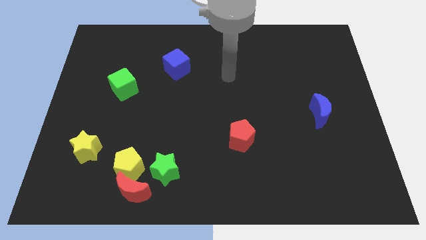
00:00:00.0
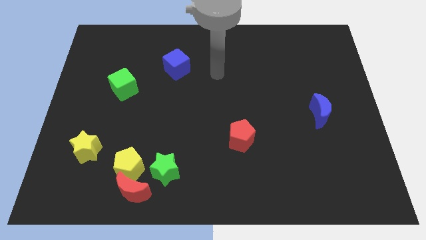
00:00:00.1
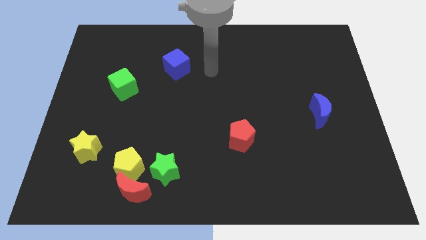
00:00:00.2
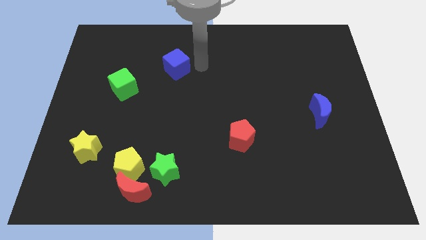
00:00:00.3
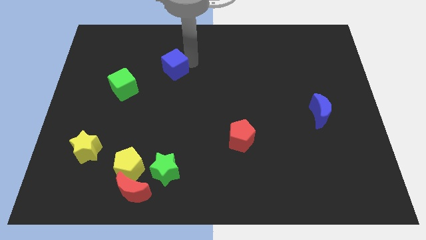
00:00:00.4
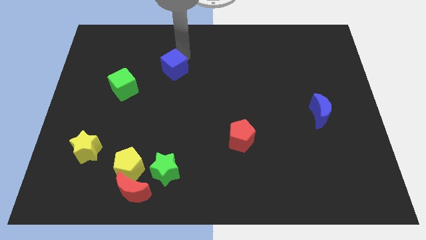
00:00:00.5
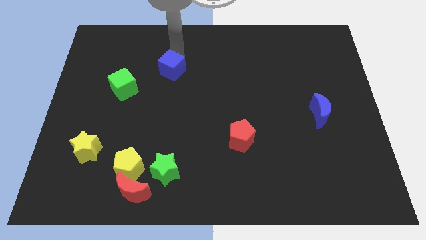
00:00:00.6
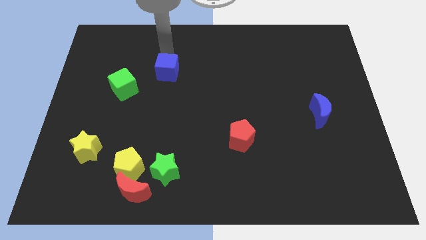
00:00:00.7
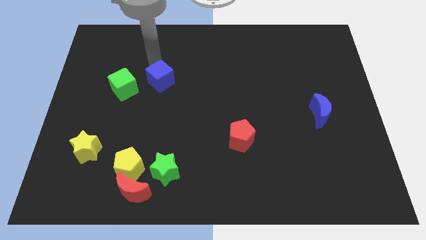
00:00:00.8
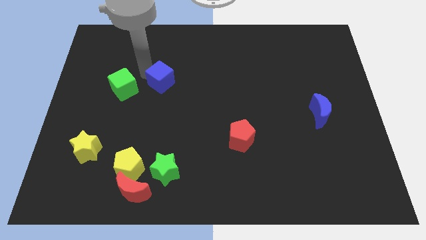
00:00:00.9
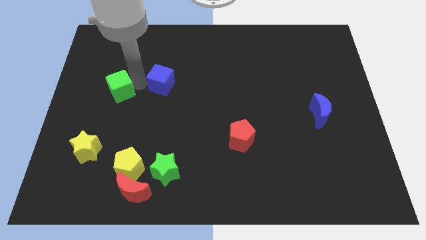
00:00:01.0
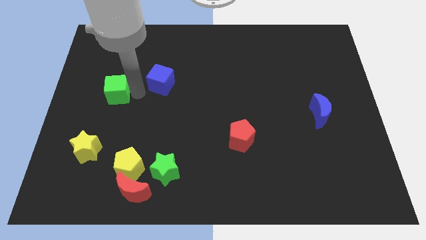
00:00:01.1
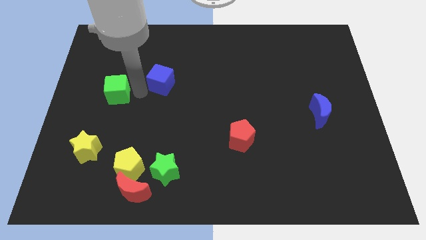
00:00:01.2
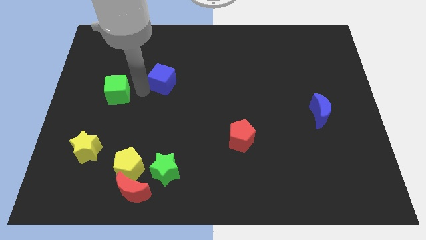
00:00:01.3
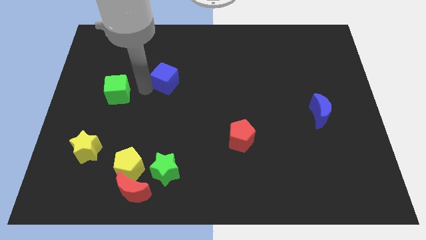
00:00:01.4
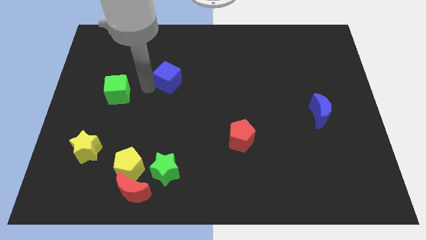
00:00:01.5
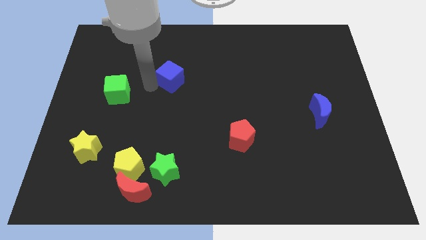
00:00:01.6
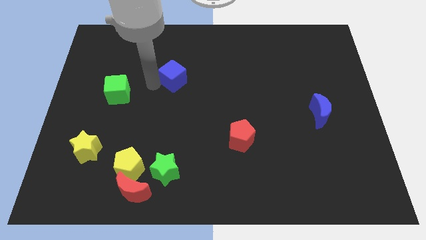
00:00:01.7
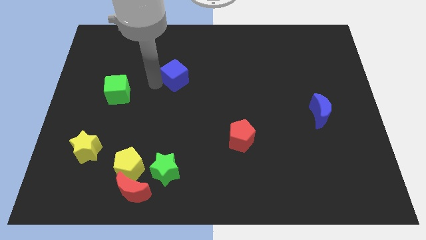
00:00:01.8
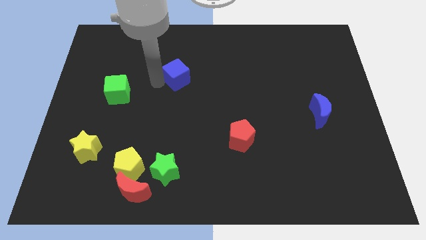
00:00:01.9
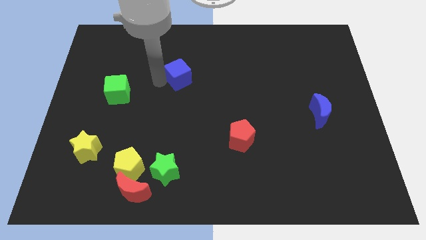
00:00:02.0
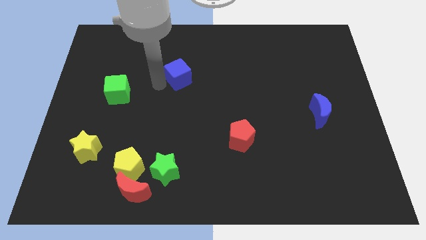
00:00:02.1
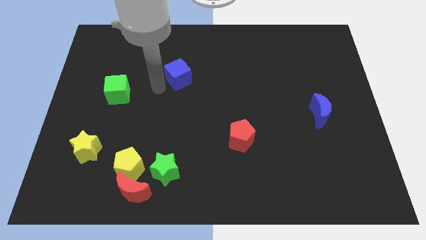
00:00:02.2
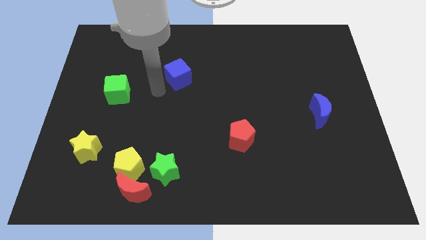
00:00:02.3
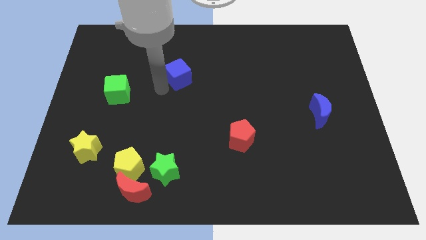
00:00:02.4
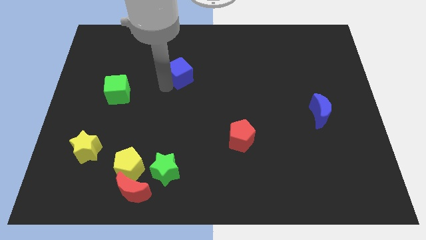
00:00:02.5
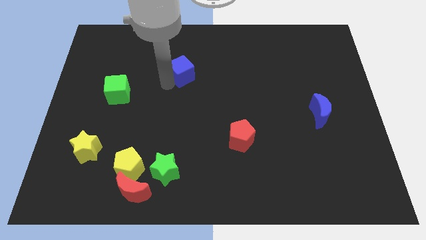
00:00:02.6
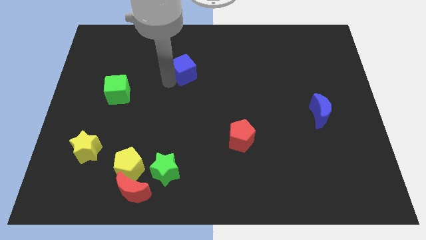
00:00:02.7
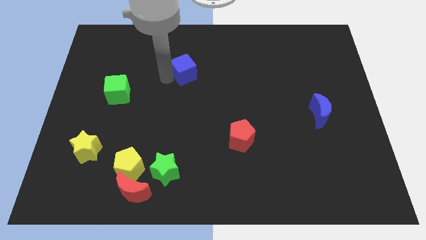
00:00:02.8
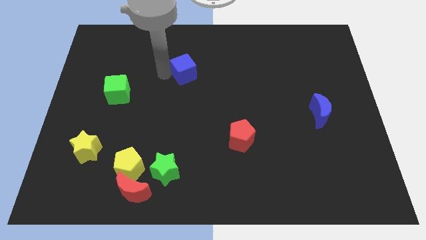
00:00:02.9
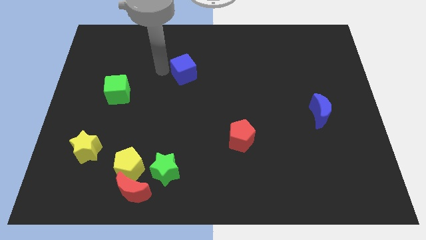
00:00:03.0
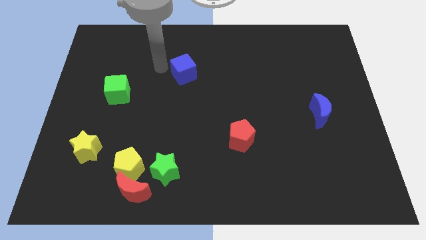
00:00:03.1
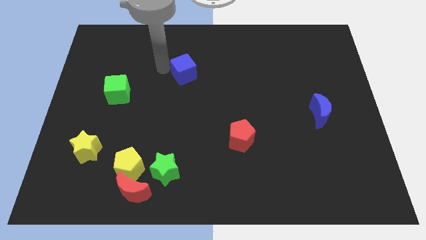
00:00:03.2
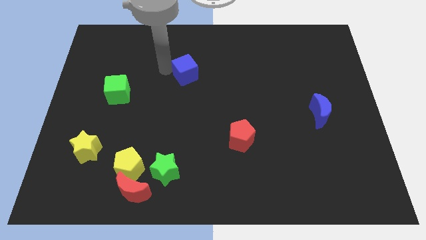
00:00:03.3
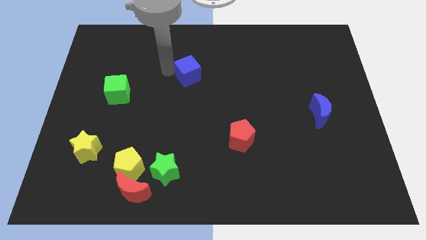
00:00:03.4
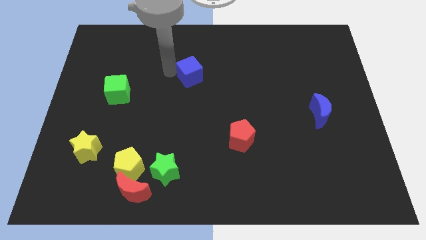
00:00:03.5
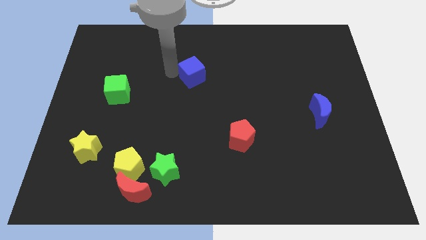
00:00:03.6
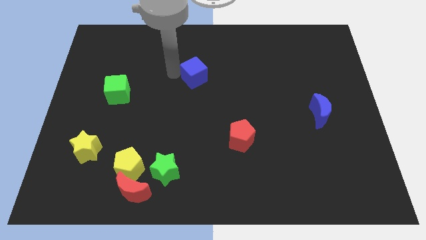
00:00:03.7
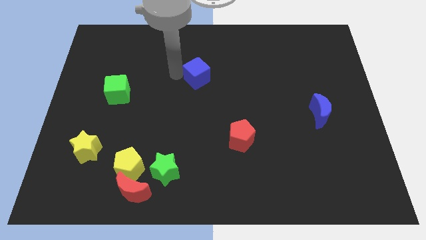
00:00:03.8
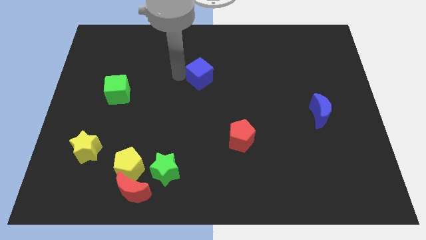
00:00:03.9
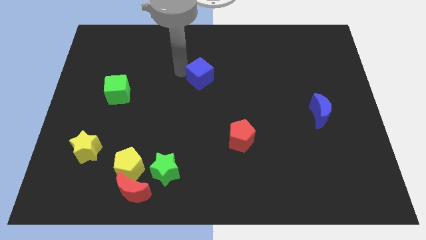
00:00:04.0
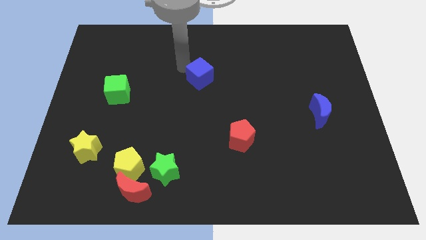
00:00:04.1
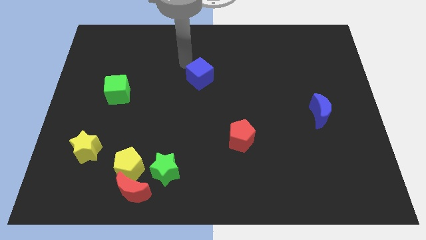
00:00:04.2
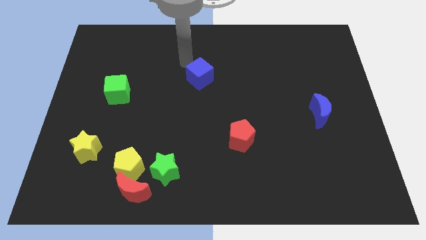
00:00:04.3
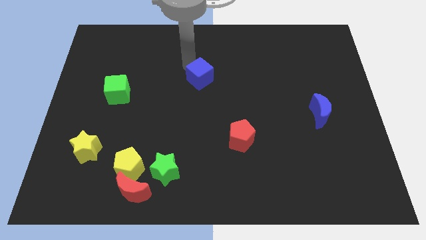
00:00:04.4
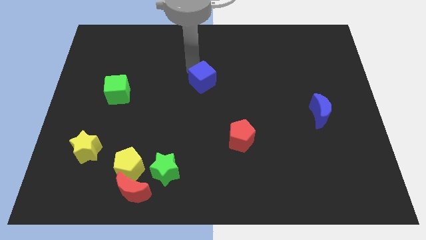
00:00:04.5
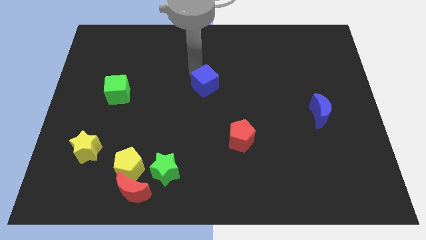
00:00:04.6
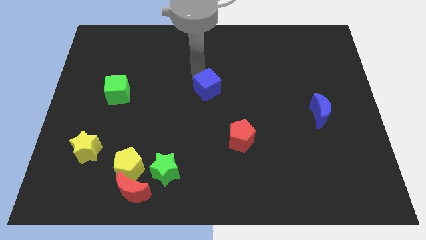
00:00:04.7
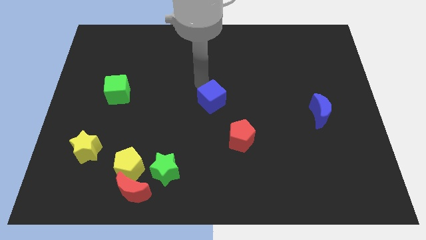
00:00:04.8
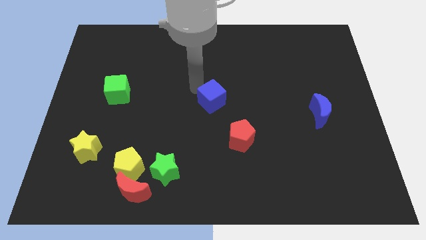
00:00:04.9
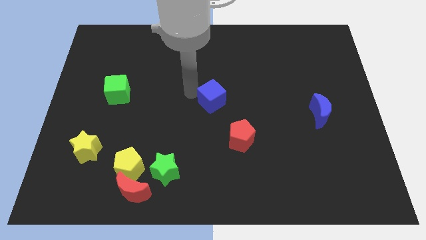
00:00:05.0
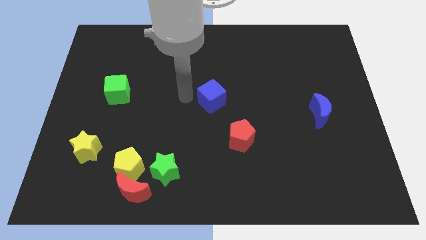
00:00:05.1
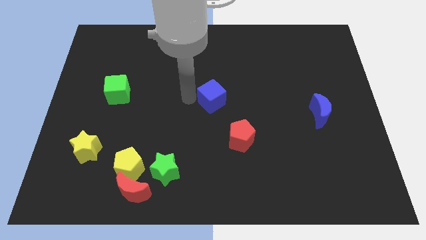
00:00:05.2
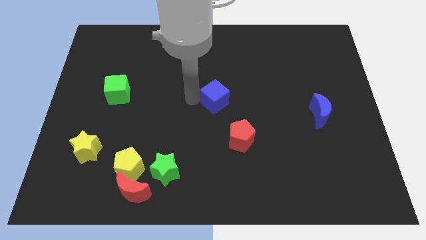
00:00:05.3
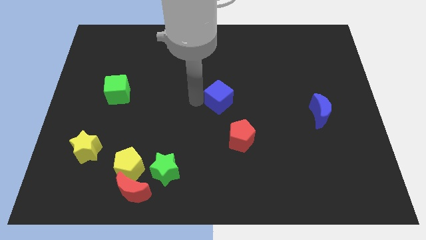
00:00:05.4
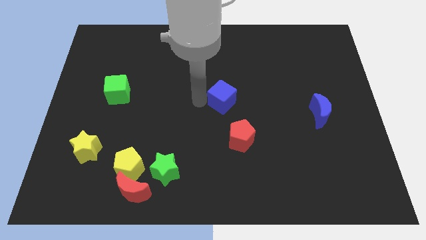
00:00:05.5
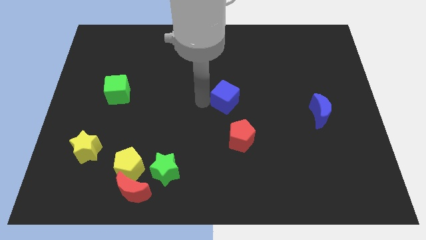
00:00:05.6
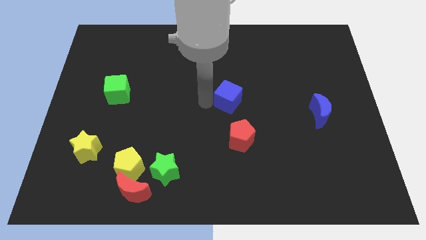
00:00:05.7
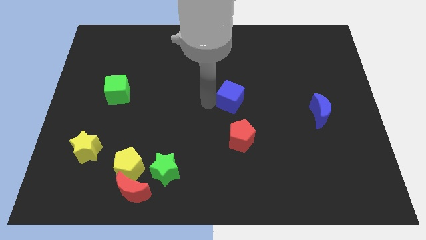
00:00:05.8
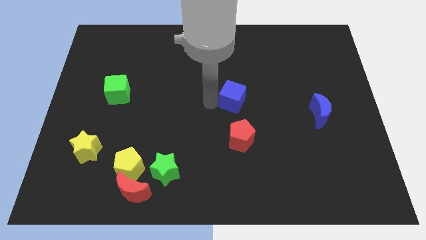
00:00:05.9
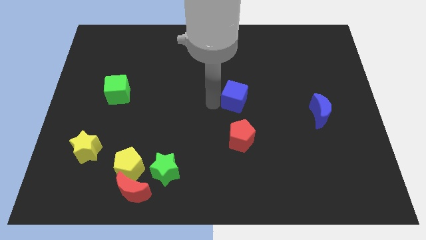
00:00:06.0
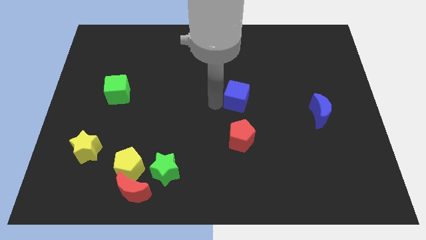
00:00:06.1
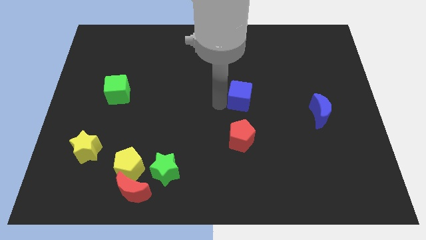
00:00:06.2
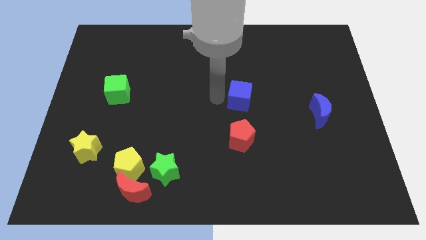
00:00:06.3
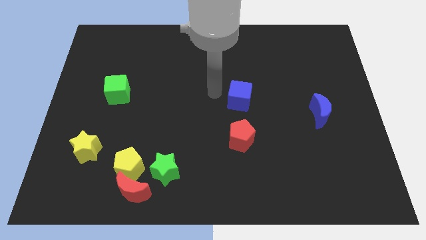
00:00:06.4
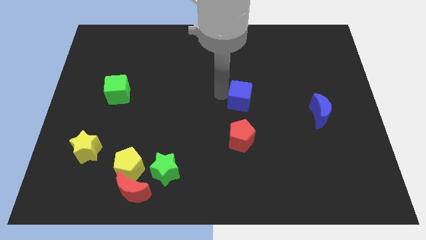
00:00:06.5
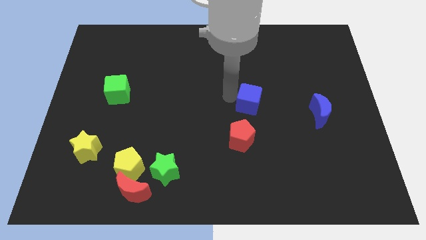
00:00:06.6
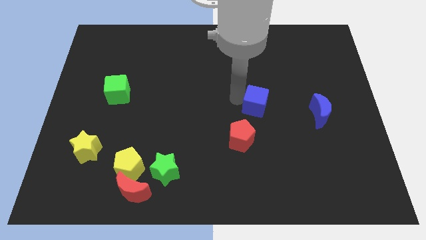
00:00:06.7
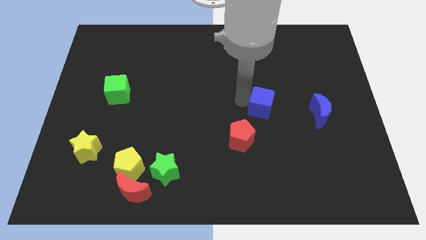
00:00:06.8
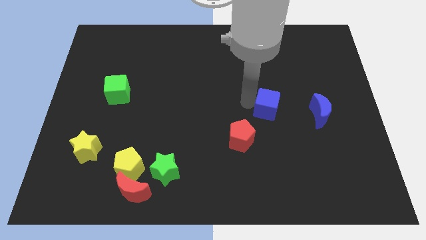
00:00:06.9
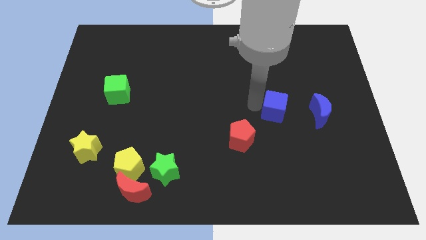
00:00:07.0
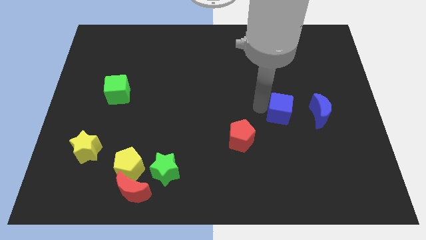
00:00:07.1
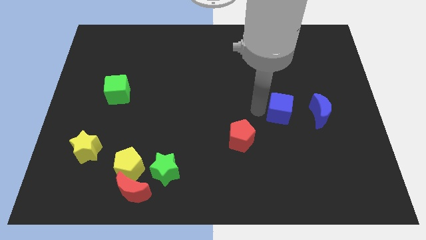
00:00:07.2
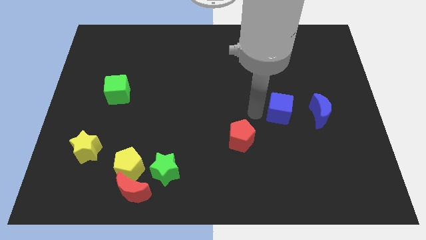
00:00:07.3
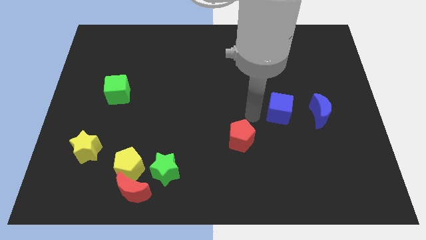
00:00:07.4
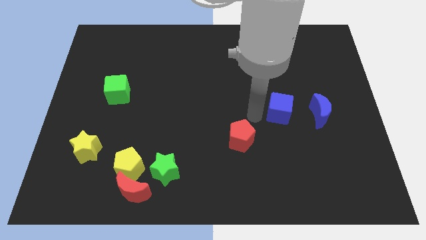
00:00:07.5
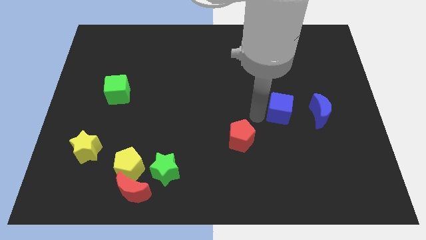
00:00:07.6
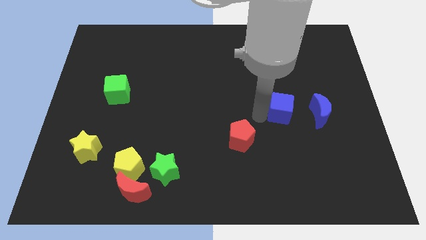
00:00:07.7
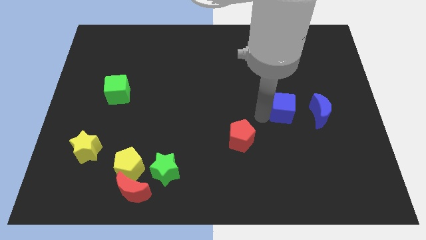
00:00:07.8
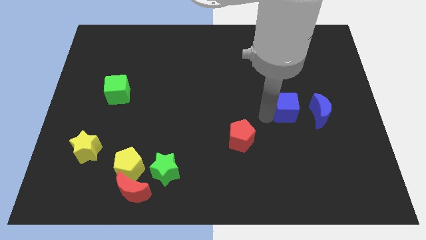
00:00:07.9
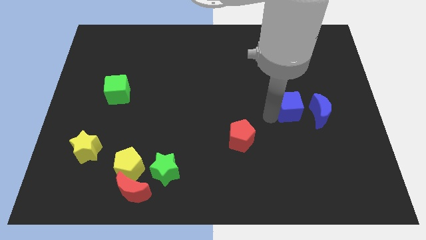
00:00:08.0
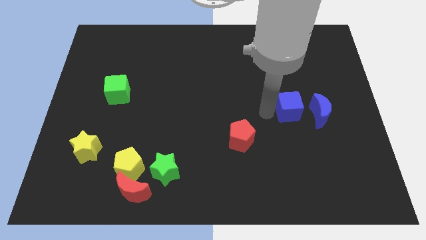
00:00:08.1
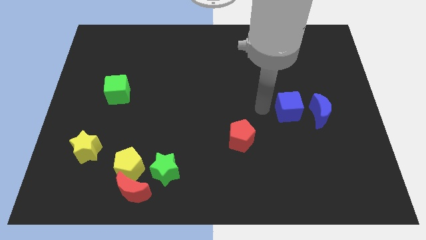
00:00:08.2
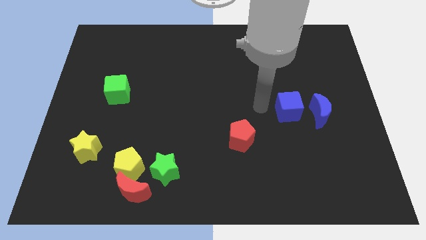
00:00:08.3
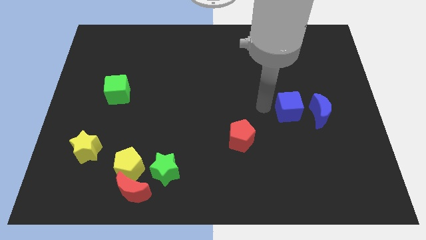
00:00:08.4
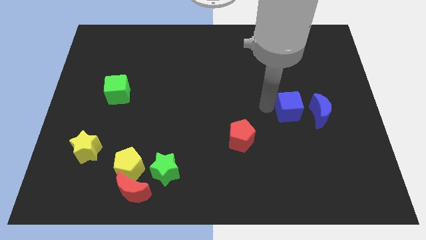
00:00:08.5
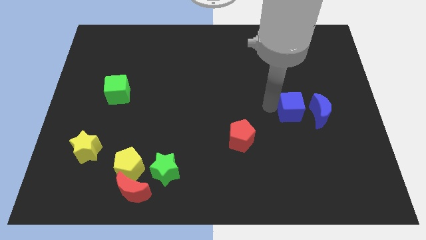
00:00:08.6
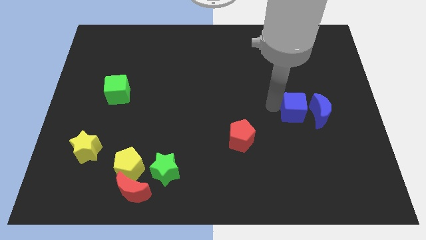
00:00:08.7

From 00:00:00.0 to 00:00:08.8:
put the blue cube close to the blue moon
